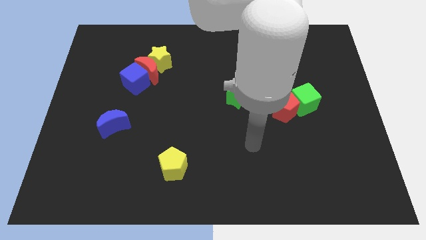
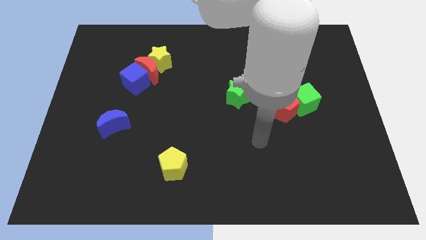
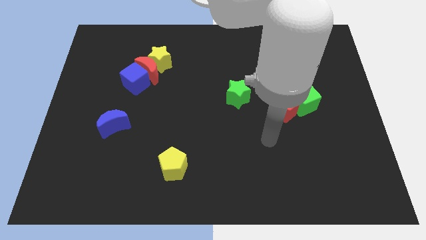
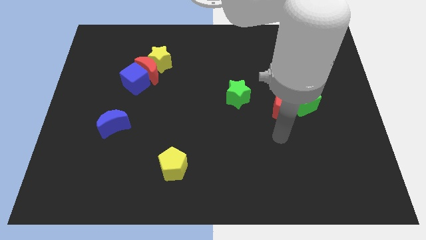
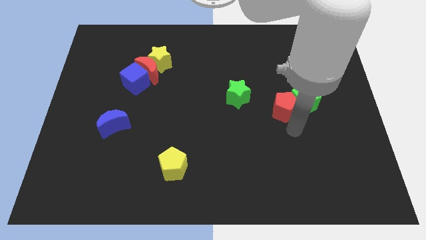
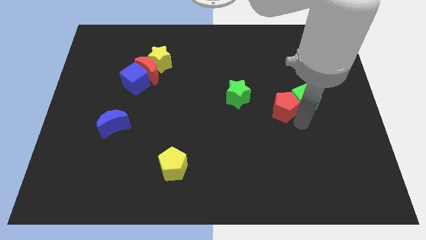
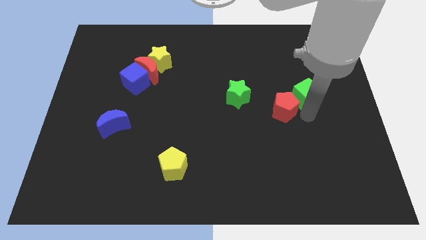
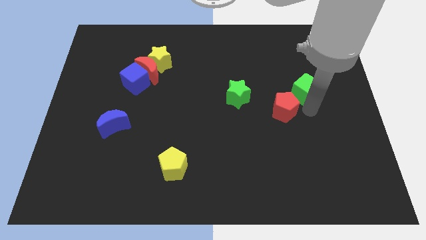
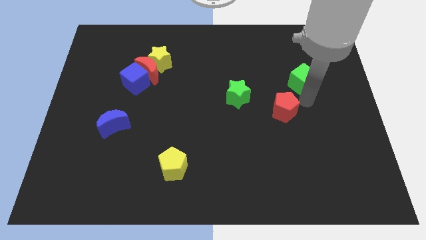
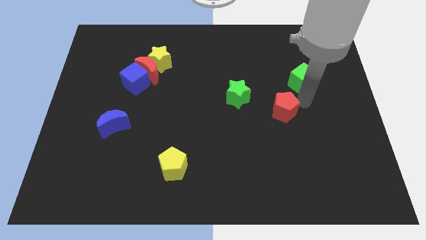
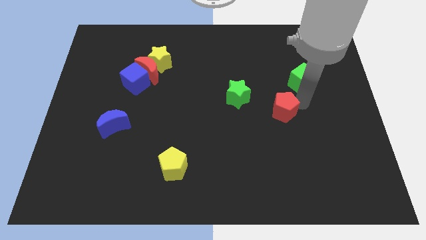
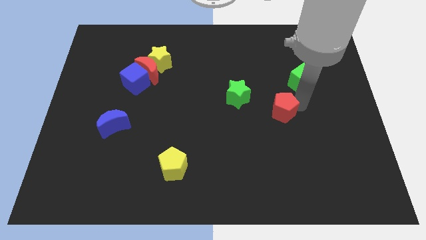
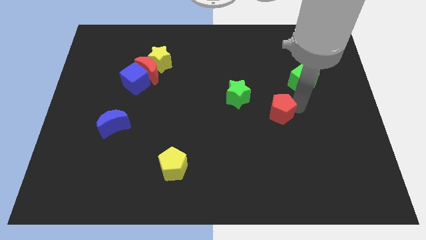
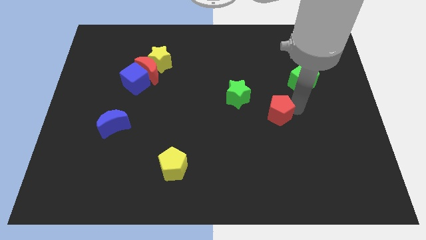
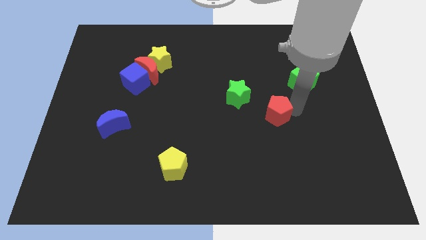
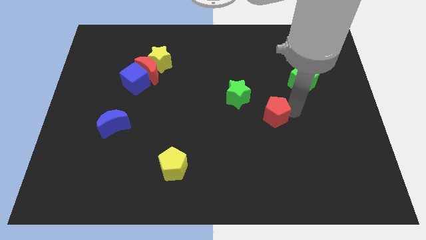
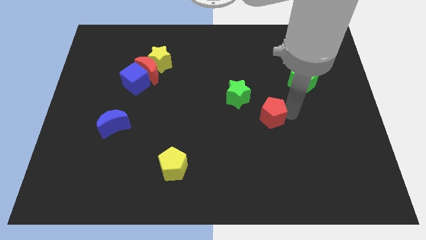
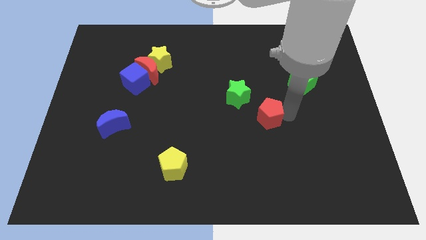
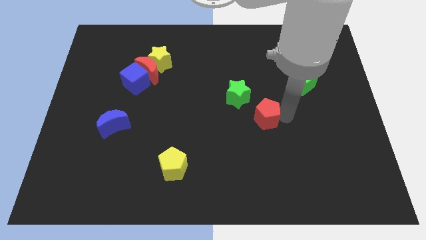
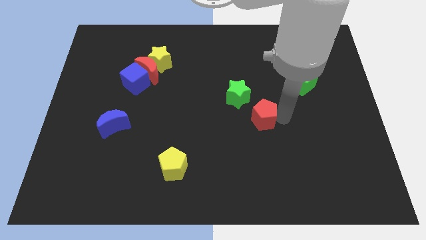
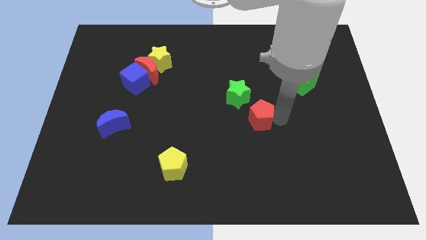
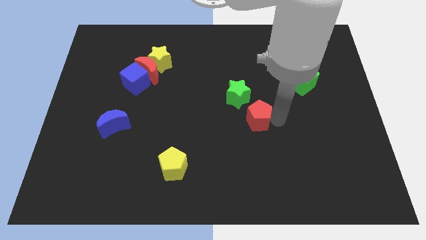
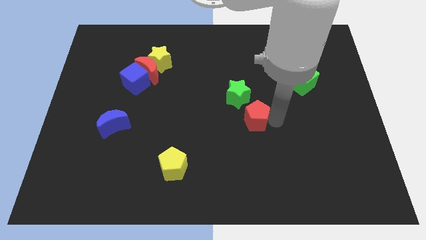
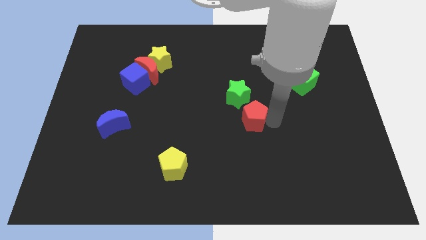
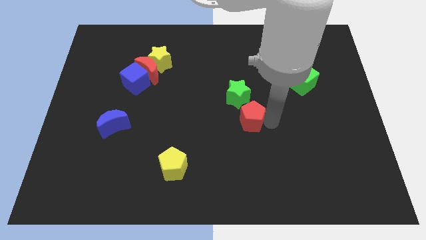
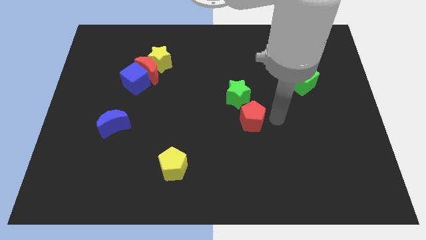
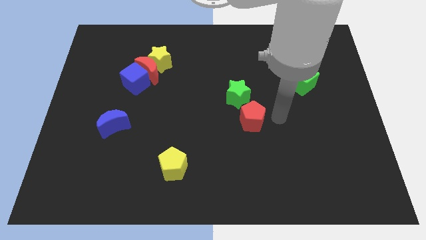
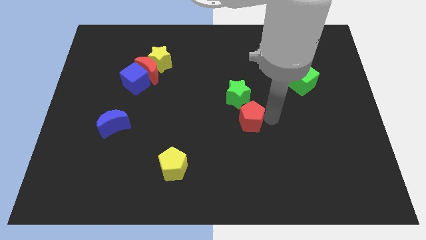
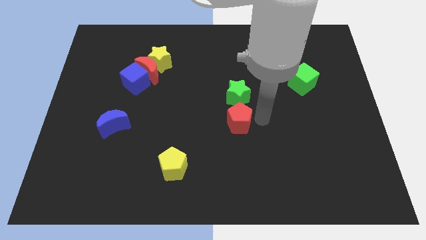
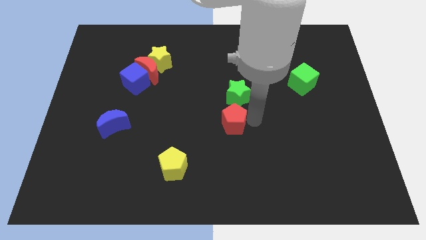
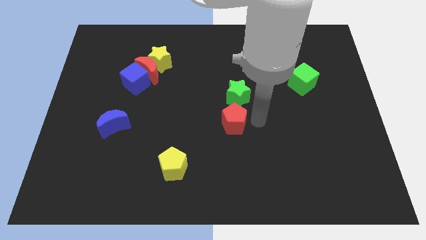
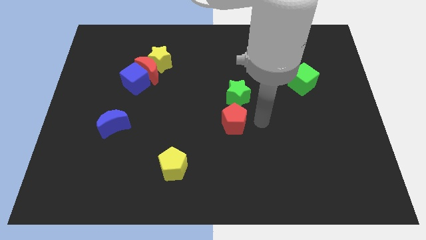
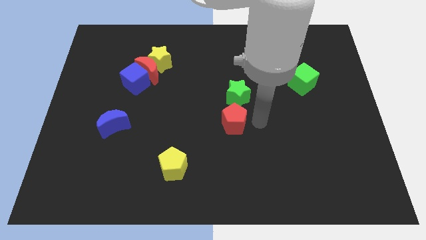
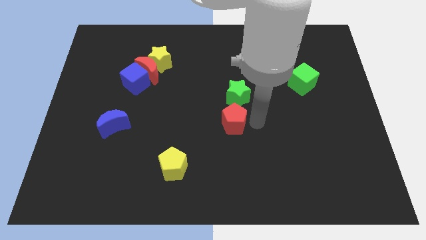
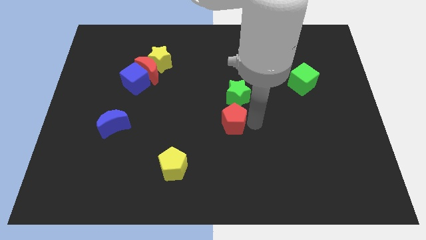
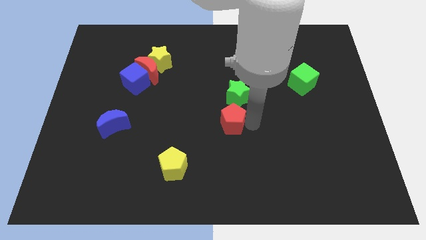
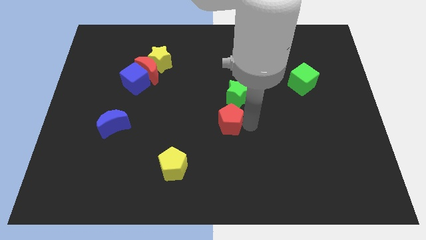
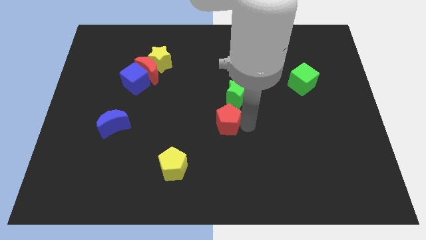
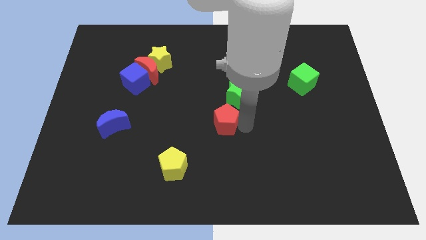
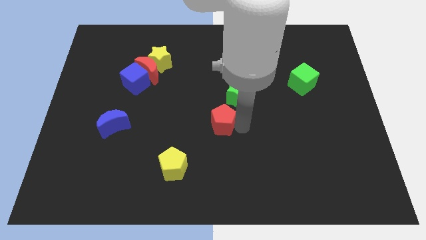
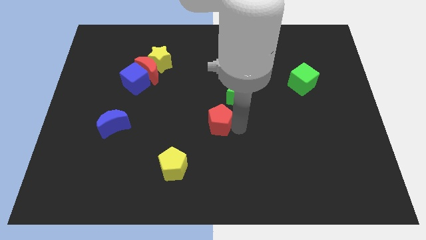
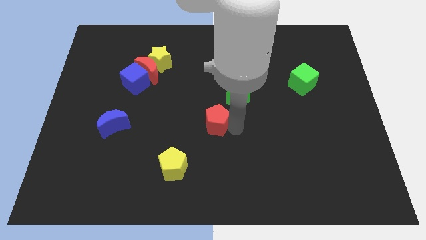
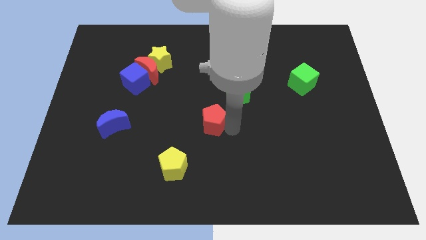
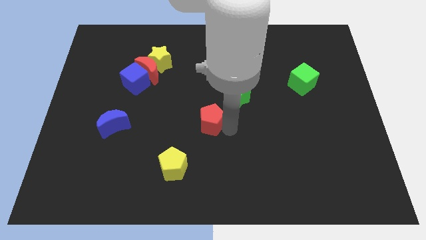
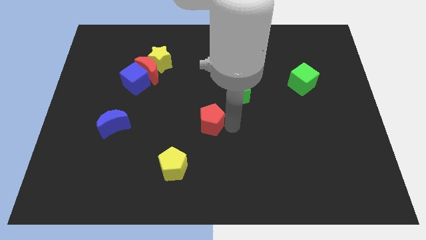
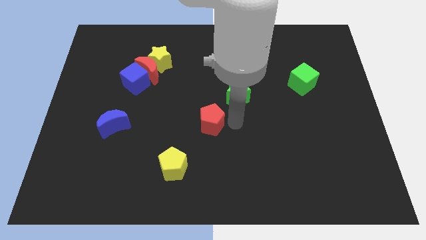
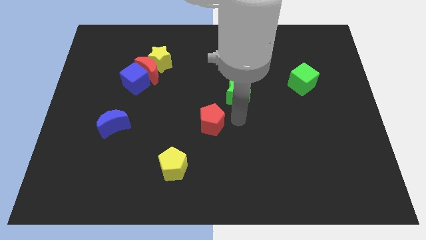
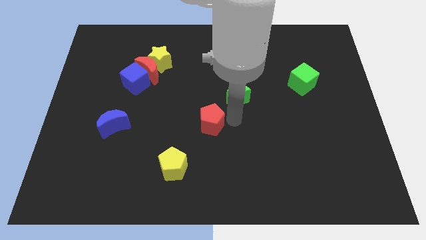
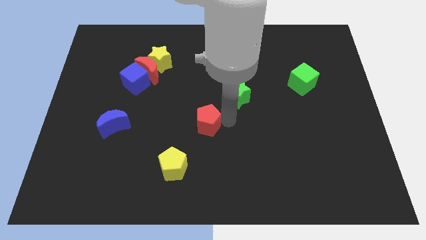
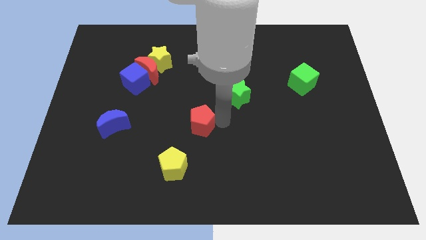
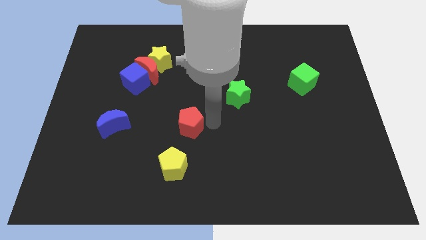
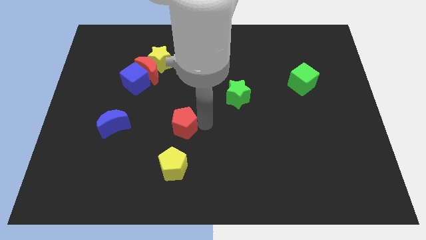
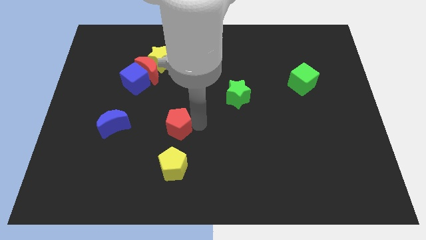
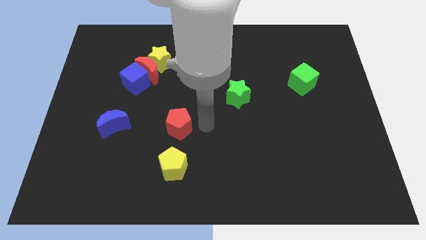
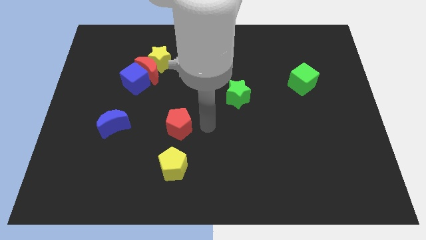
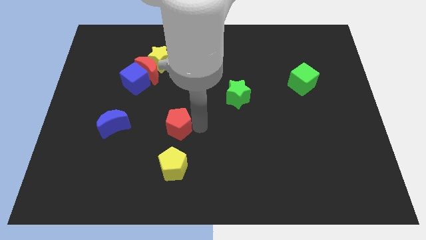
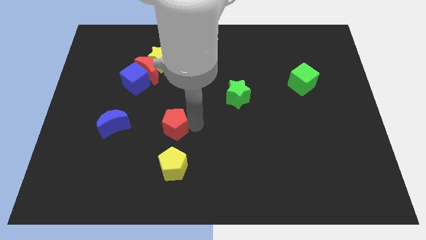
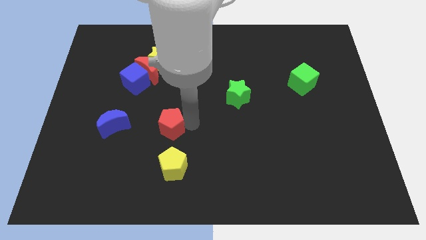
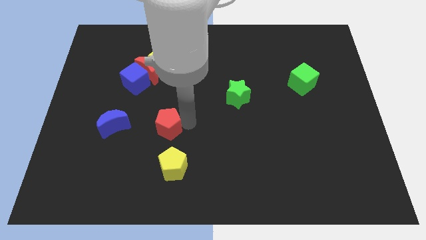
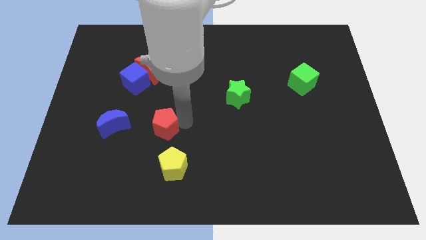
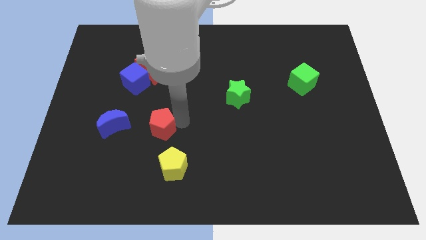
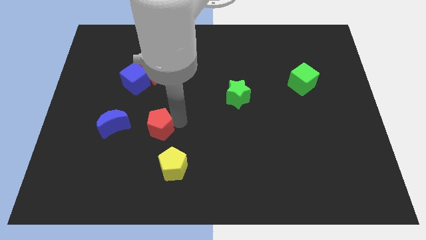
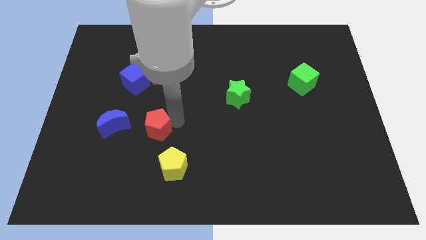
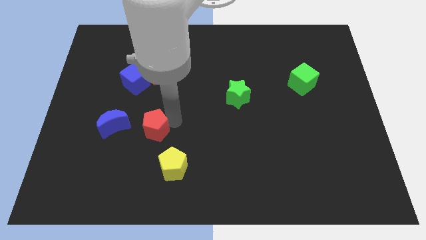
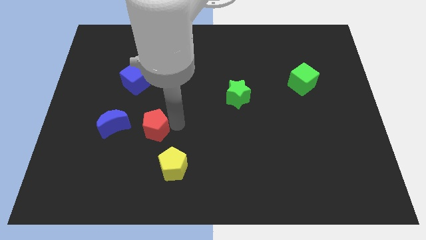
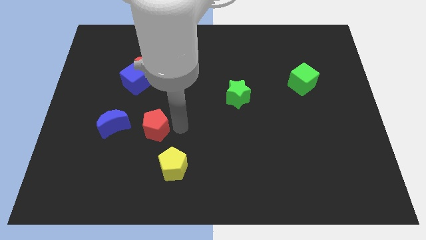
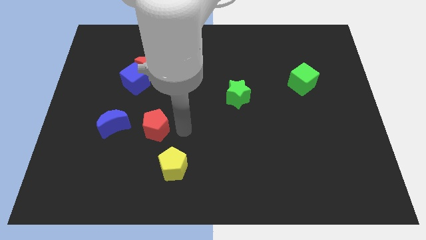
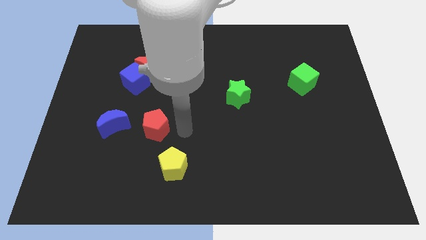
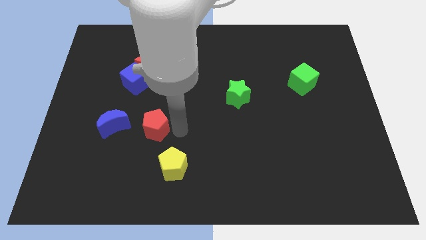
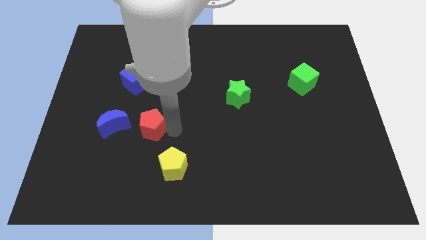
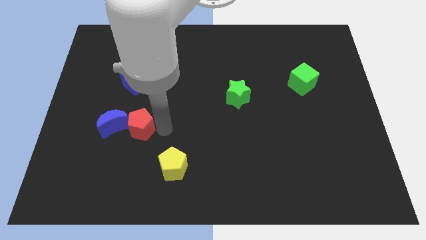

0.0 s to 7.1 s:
slide the red pentagon close to the blue moon

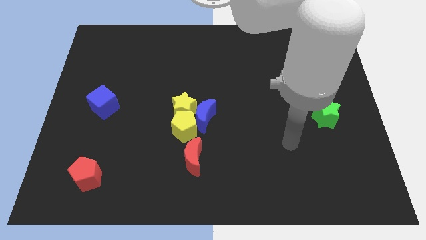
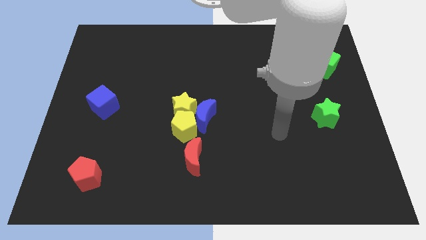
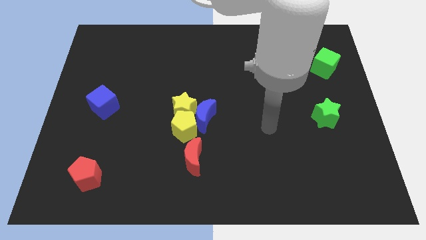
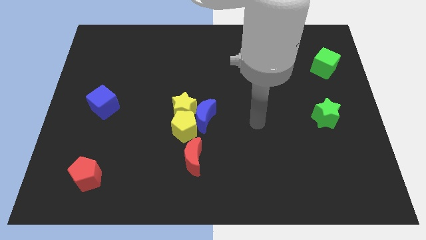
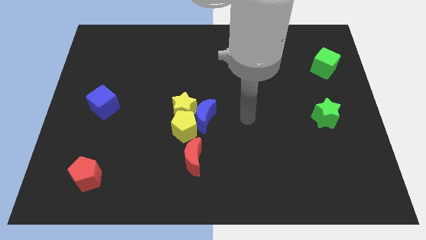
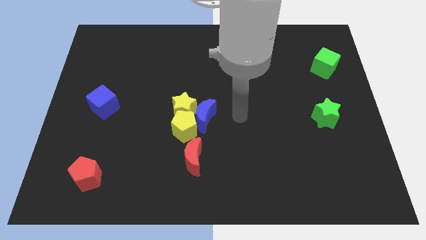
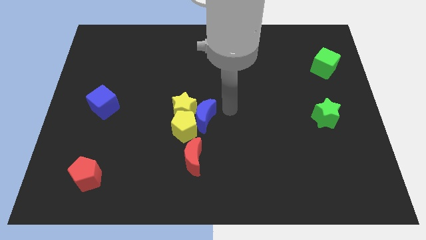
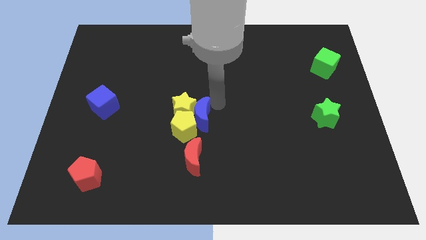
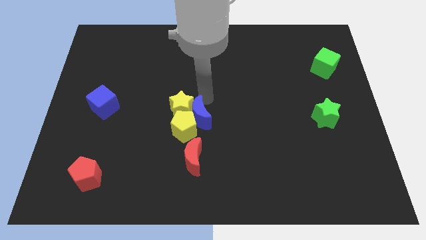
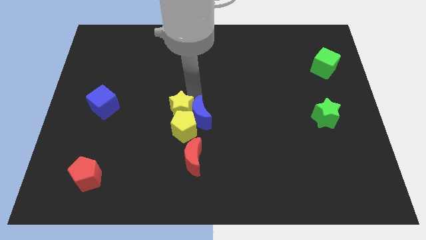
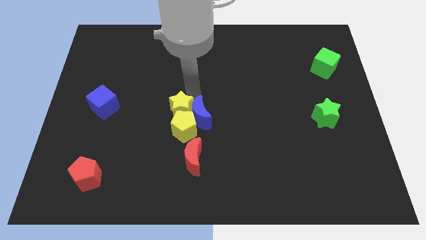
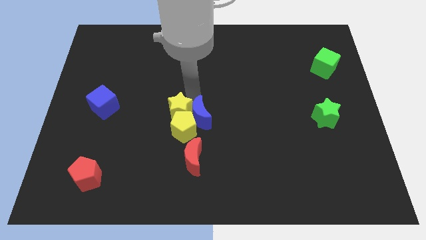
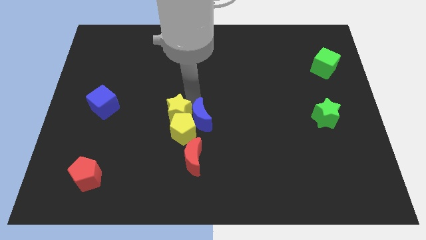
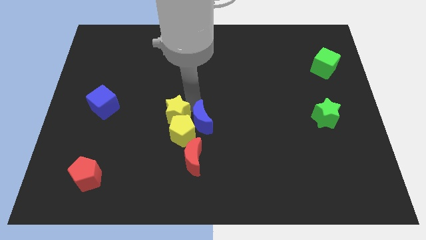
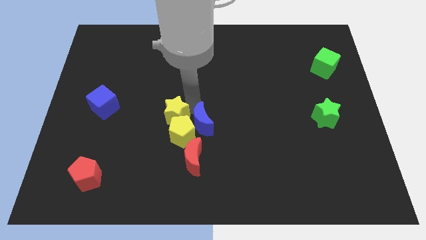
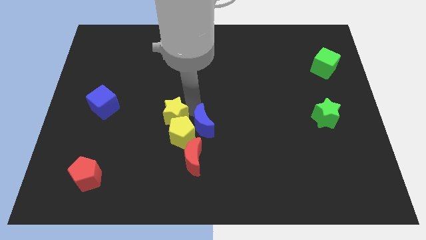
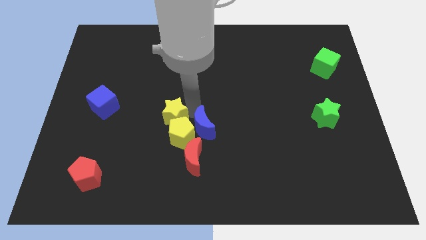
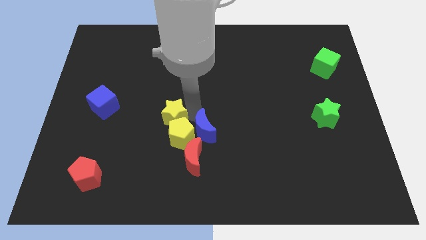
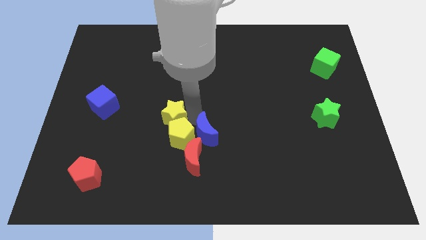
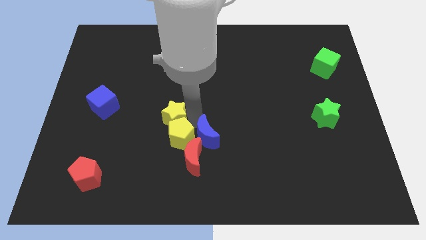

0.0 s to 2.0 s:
push the blue moon next to the red moon
